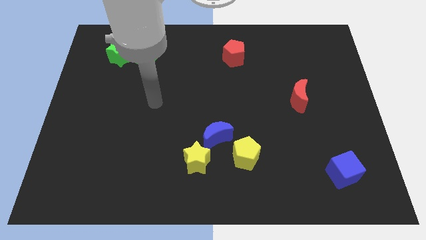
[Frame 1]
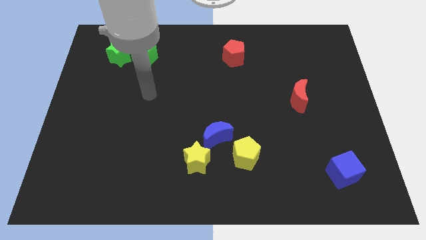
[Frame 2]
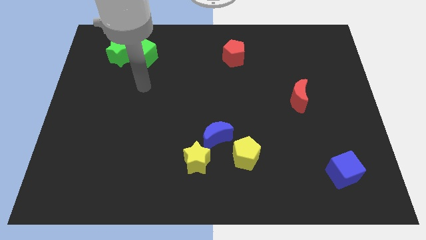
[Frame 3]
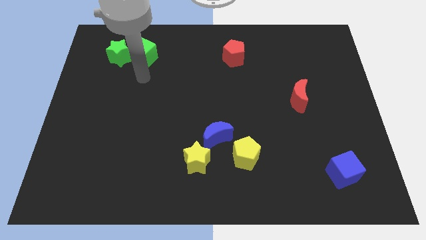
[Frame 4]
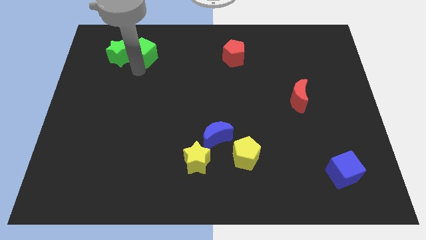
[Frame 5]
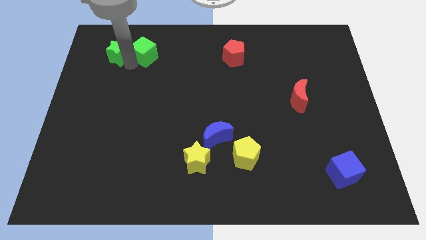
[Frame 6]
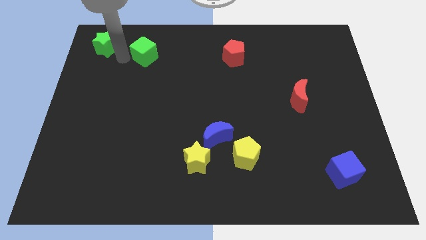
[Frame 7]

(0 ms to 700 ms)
pull the green cube apart from the green star

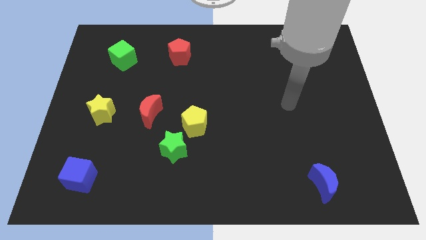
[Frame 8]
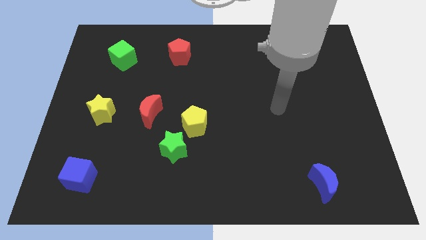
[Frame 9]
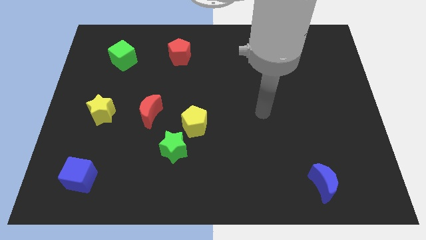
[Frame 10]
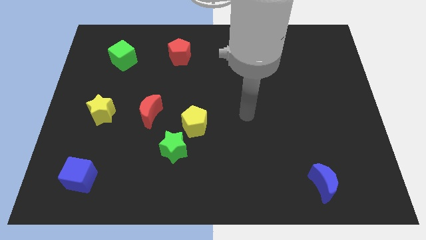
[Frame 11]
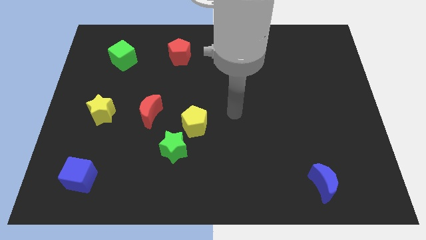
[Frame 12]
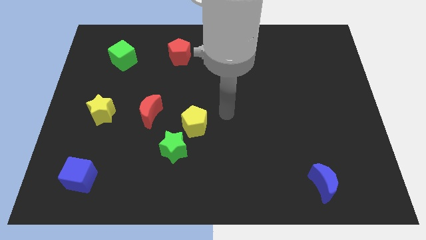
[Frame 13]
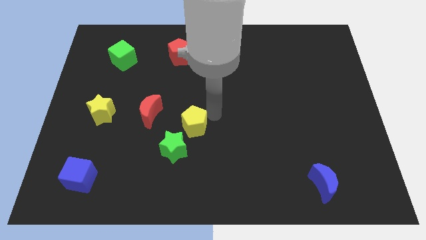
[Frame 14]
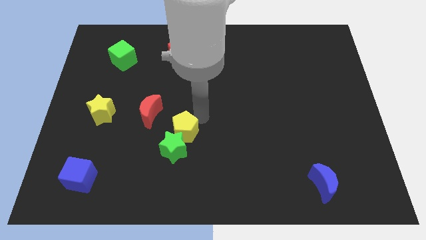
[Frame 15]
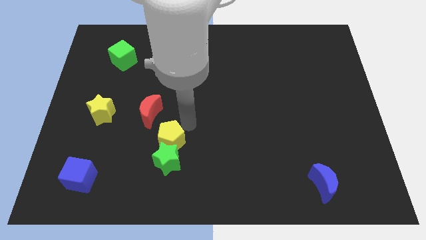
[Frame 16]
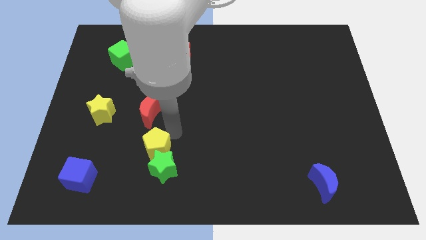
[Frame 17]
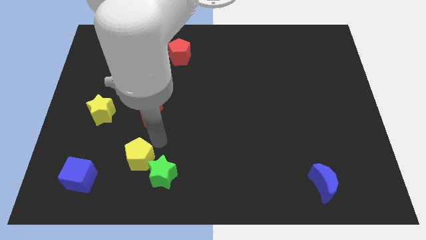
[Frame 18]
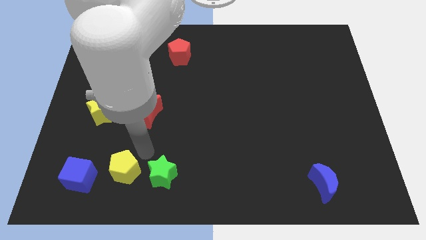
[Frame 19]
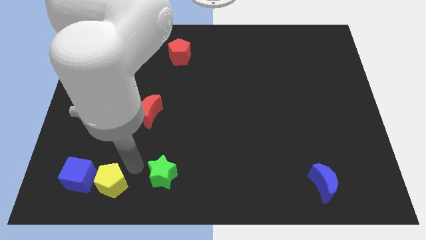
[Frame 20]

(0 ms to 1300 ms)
move the green star away from the yellow pentagon

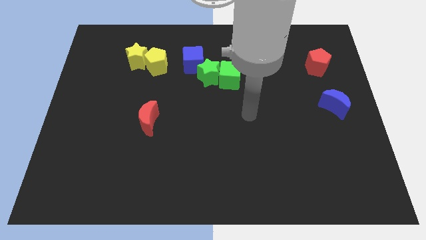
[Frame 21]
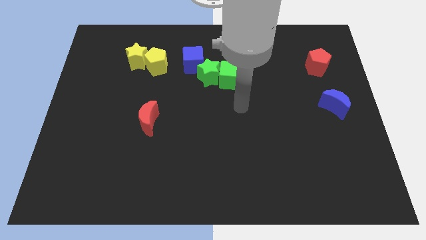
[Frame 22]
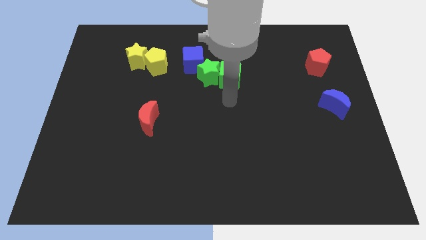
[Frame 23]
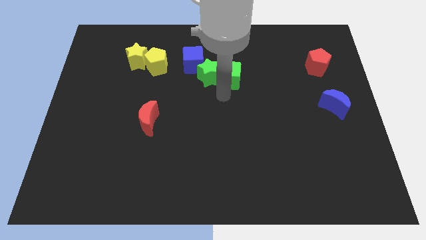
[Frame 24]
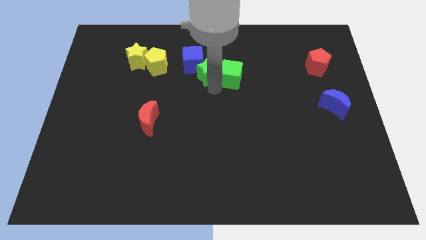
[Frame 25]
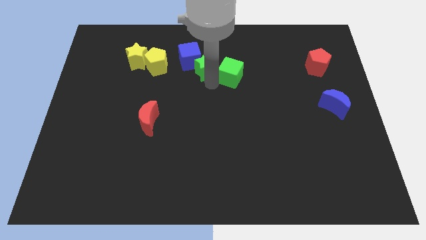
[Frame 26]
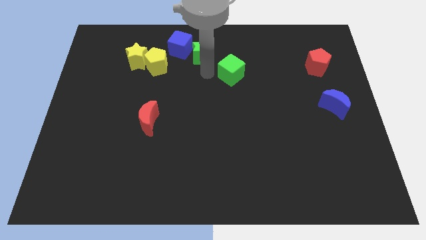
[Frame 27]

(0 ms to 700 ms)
move the green cube away from the green star

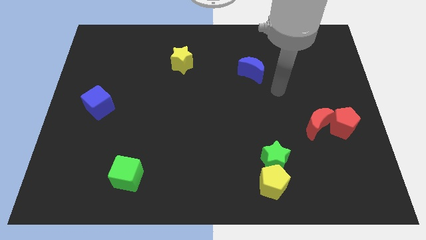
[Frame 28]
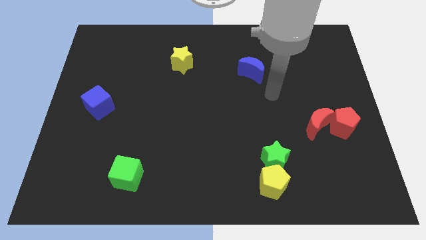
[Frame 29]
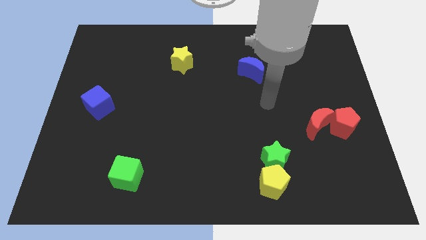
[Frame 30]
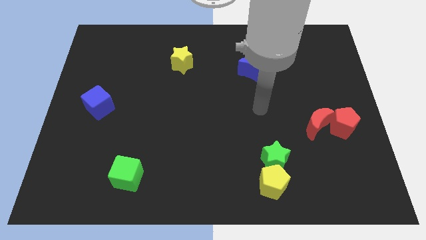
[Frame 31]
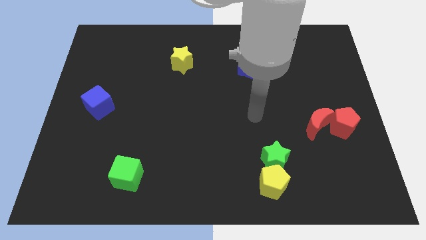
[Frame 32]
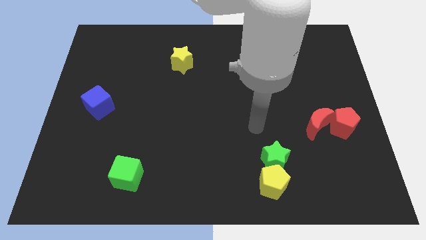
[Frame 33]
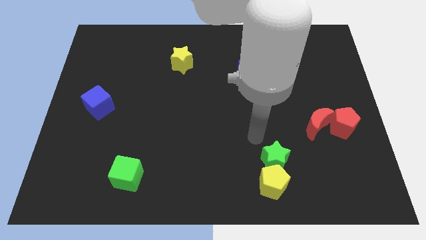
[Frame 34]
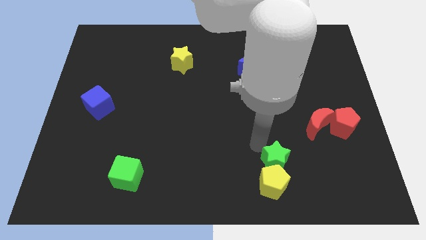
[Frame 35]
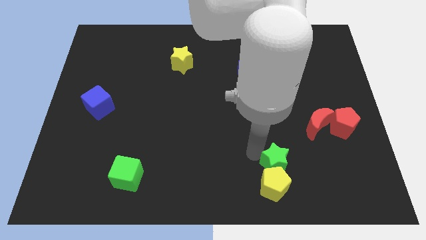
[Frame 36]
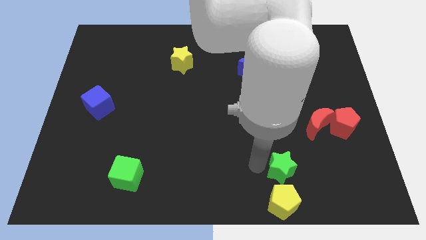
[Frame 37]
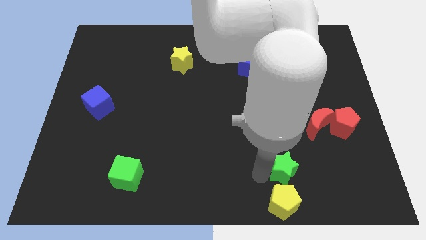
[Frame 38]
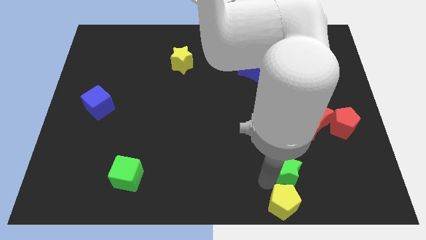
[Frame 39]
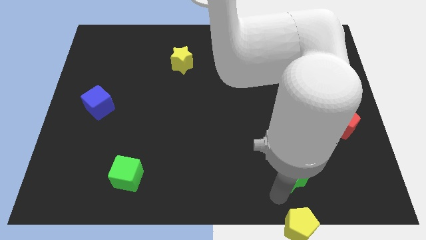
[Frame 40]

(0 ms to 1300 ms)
pull the green star apart from the yellow pentagon

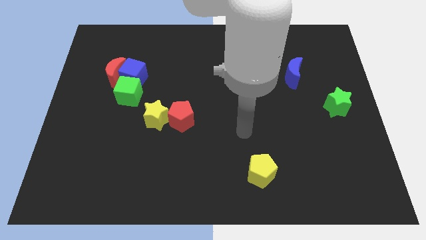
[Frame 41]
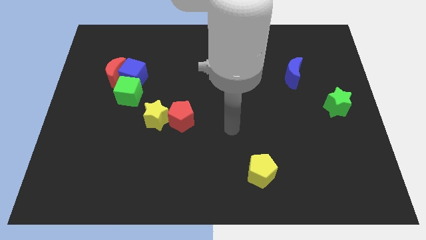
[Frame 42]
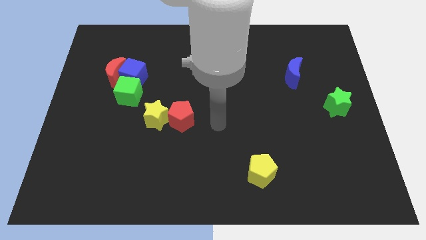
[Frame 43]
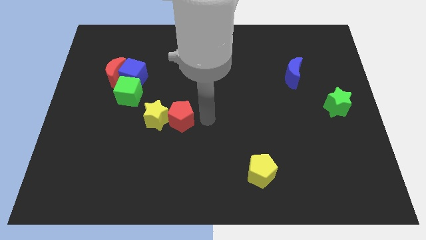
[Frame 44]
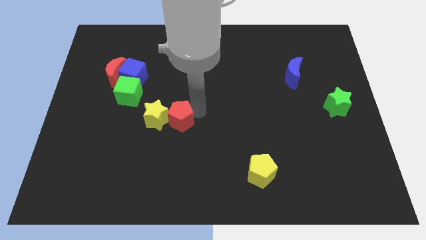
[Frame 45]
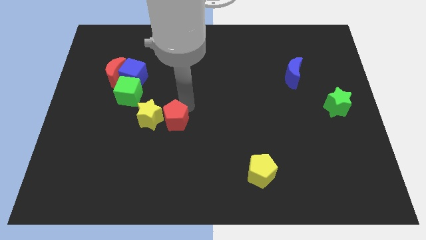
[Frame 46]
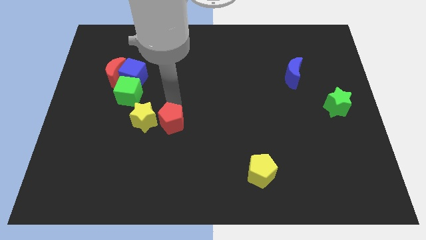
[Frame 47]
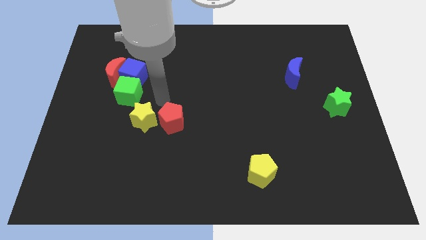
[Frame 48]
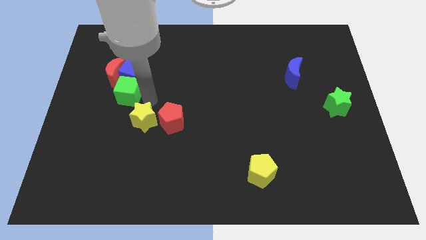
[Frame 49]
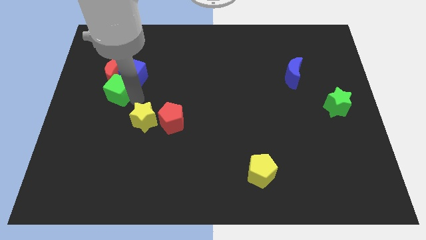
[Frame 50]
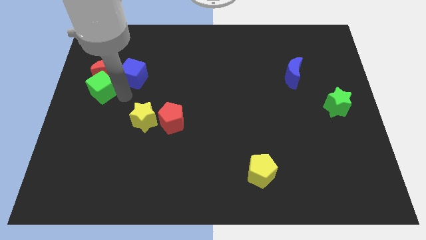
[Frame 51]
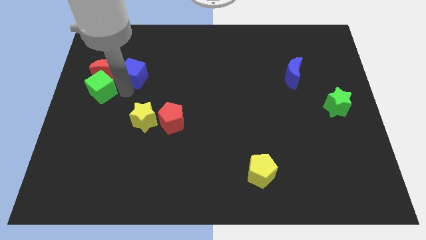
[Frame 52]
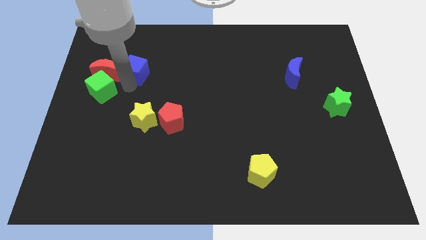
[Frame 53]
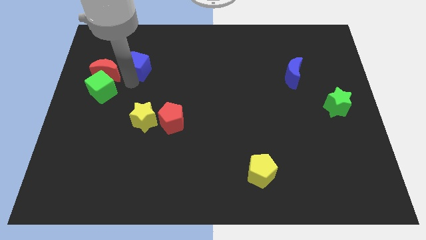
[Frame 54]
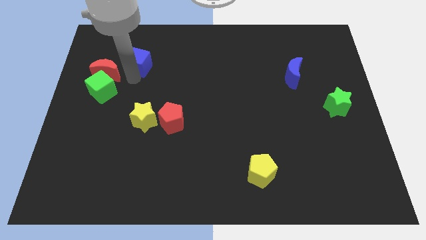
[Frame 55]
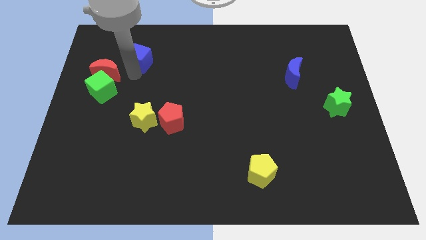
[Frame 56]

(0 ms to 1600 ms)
move the blue cube away from the red moon and green cube

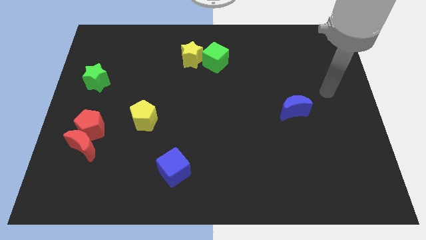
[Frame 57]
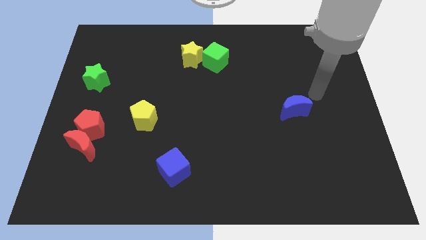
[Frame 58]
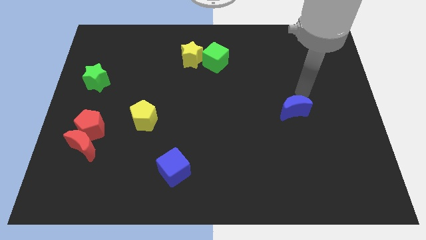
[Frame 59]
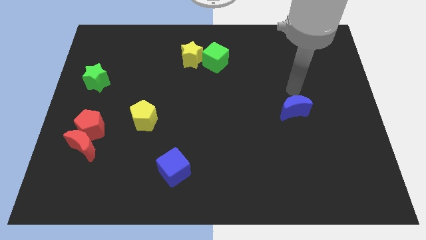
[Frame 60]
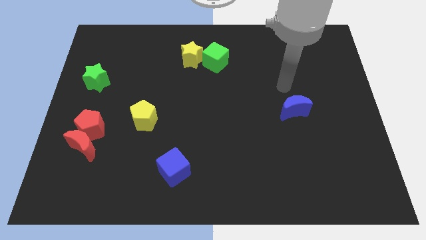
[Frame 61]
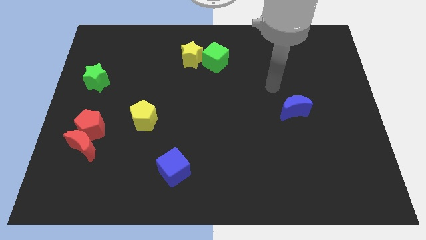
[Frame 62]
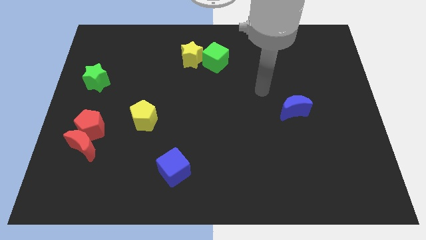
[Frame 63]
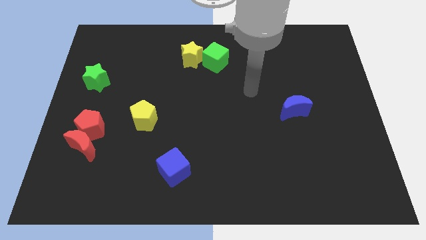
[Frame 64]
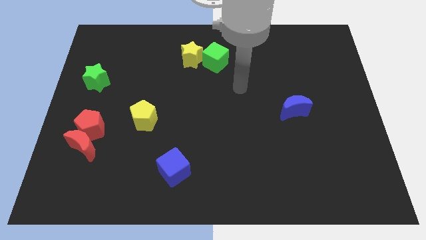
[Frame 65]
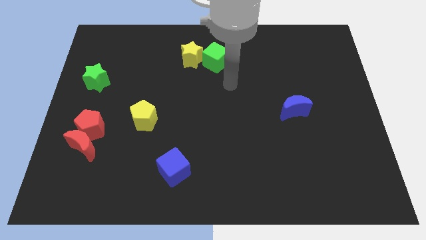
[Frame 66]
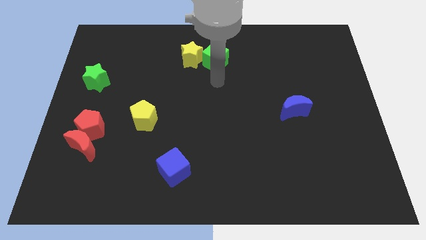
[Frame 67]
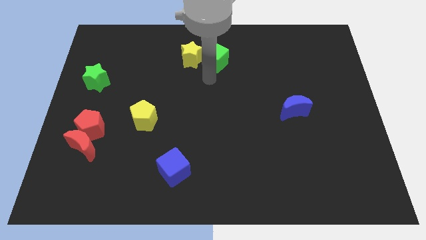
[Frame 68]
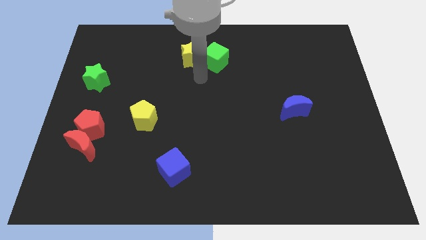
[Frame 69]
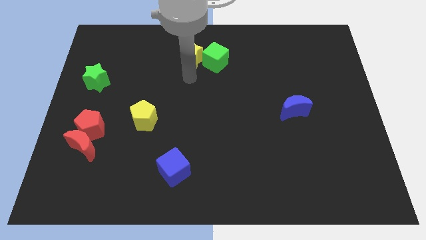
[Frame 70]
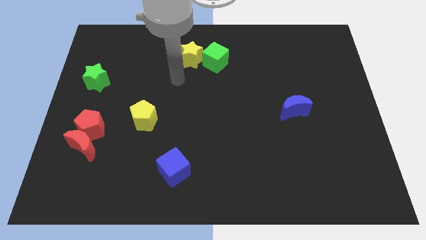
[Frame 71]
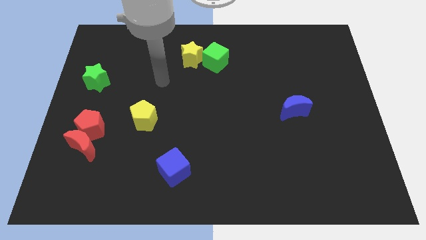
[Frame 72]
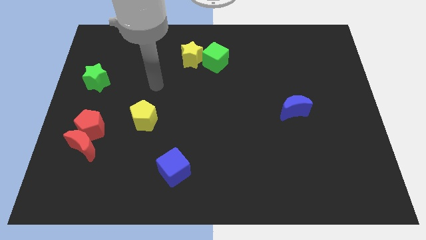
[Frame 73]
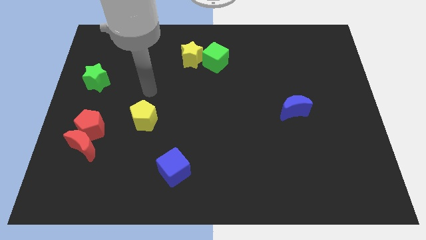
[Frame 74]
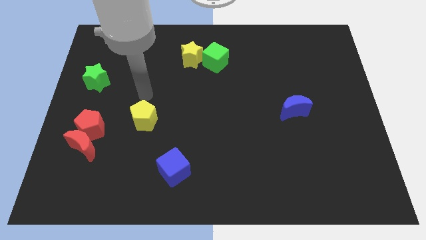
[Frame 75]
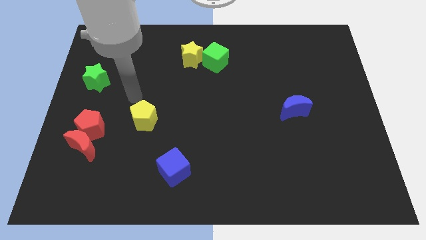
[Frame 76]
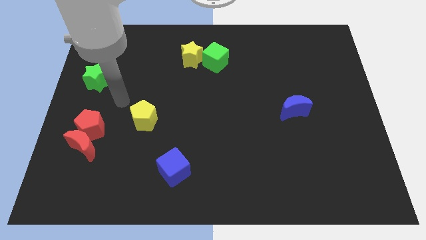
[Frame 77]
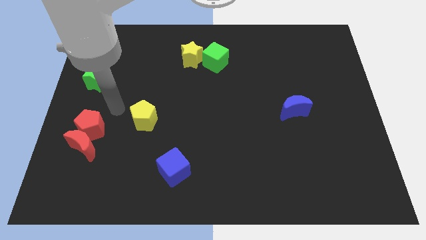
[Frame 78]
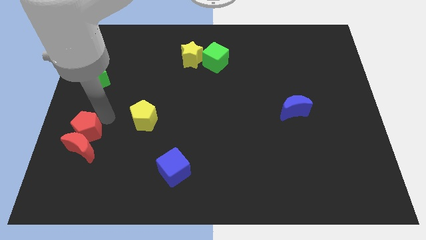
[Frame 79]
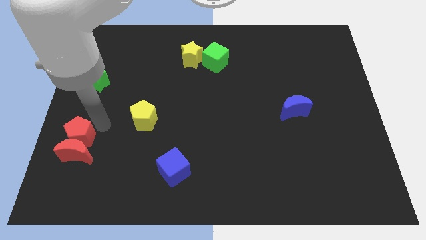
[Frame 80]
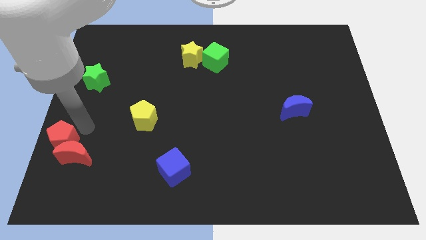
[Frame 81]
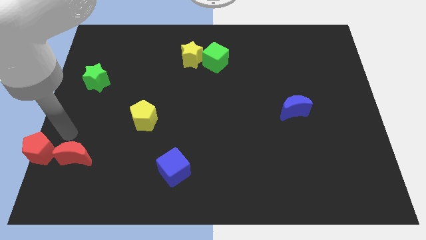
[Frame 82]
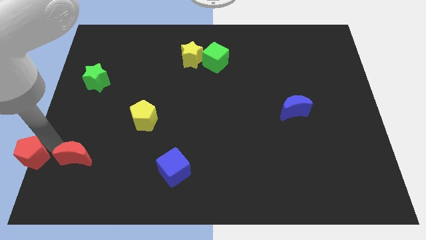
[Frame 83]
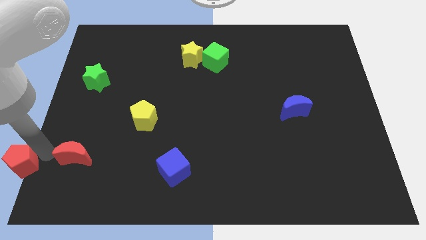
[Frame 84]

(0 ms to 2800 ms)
move the red moon away from the red pentagon

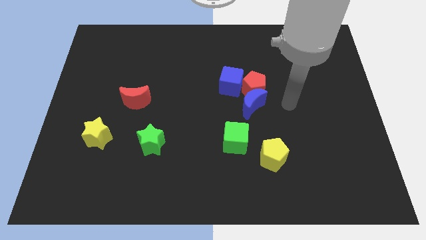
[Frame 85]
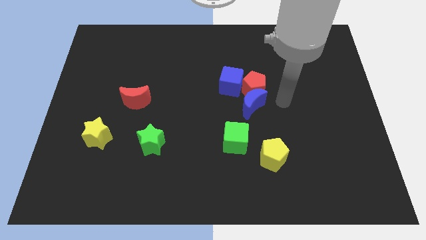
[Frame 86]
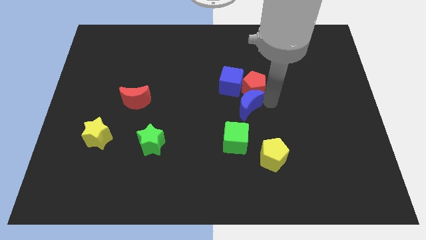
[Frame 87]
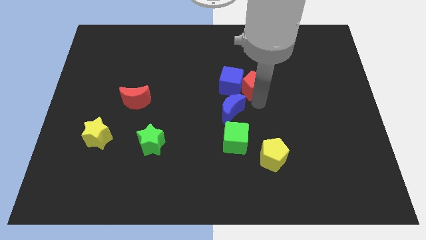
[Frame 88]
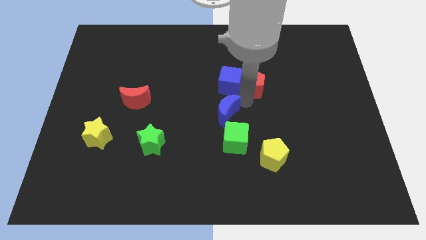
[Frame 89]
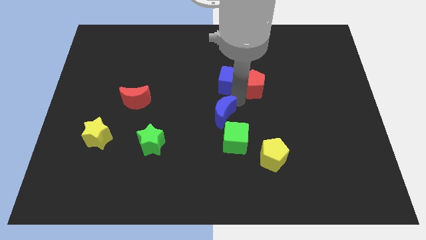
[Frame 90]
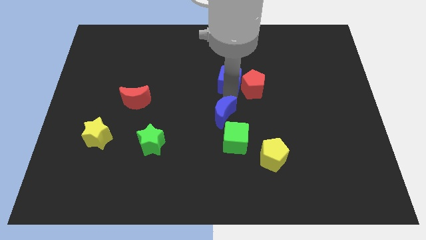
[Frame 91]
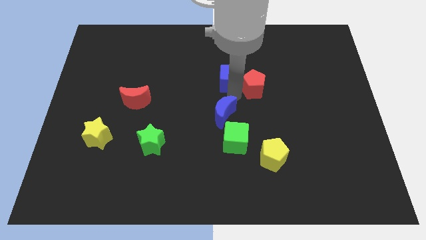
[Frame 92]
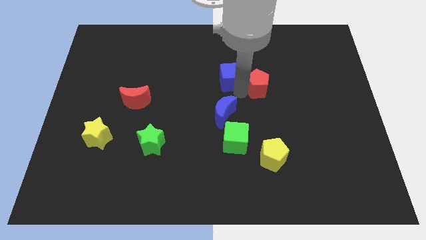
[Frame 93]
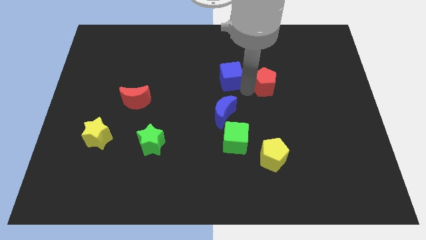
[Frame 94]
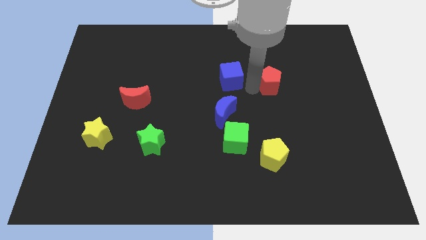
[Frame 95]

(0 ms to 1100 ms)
move the red pentagon away from the blue moon and blue cube
